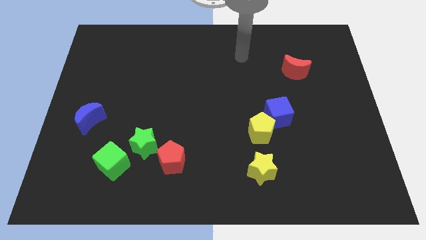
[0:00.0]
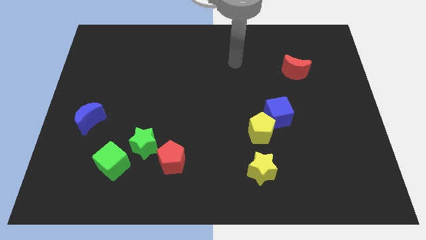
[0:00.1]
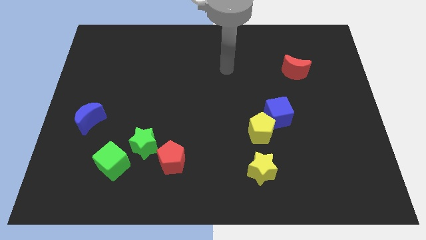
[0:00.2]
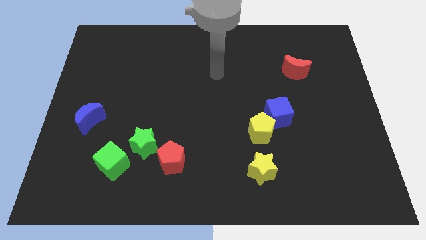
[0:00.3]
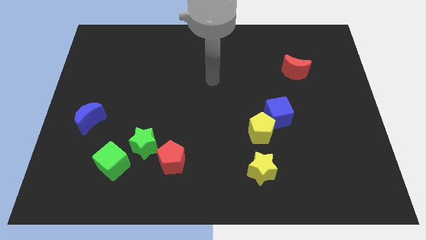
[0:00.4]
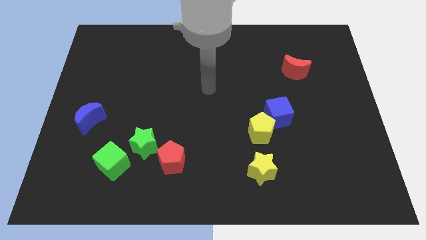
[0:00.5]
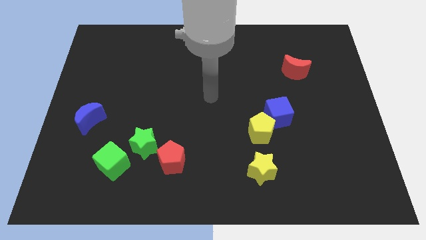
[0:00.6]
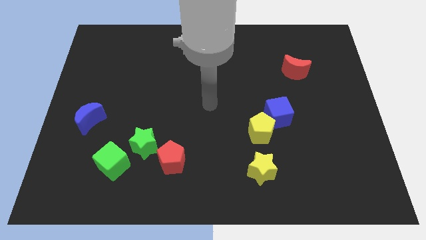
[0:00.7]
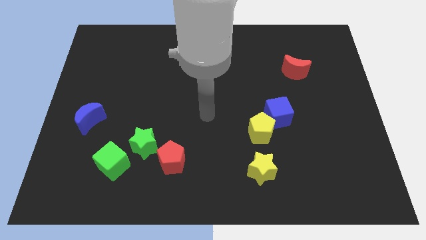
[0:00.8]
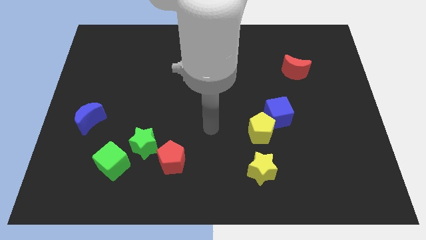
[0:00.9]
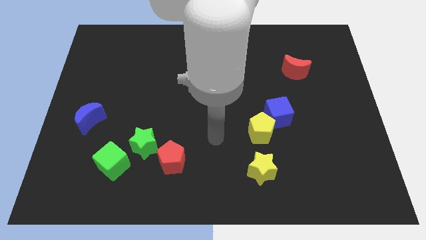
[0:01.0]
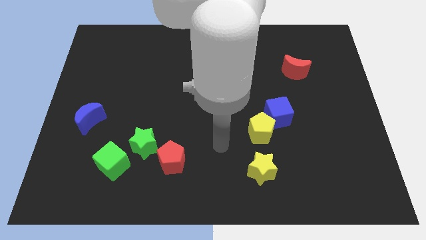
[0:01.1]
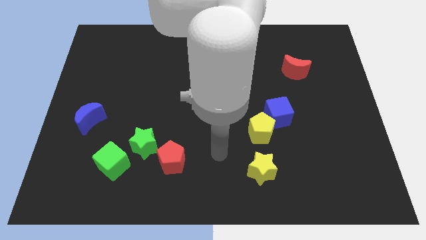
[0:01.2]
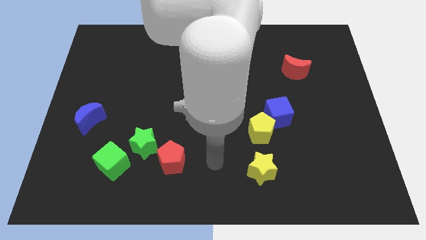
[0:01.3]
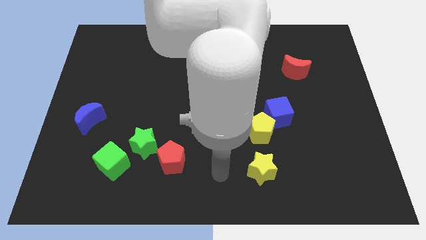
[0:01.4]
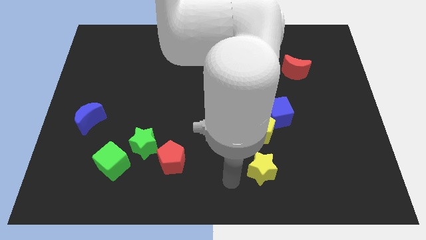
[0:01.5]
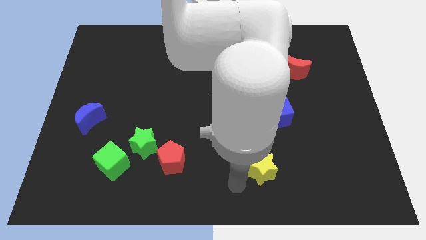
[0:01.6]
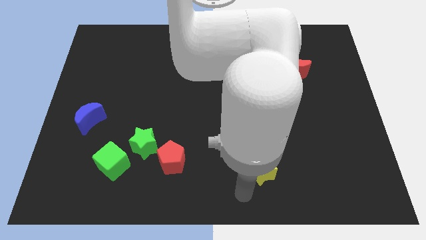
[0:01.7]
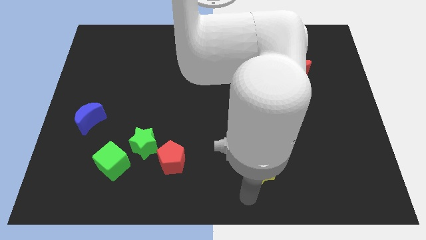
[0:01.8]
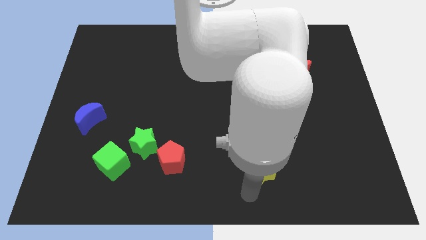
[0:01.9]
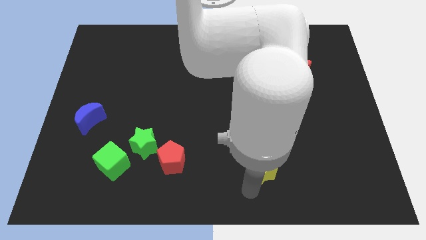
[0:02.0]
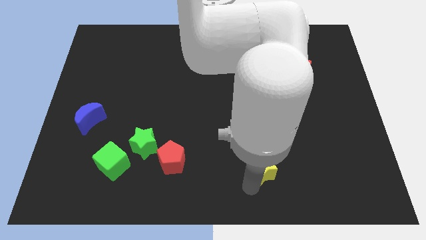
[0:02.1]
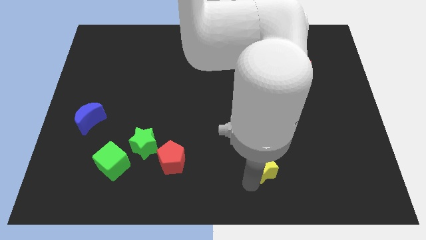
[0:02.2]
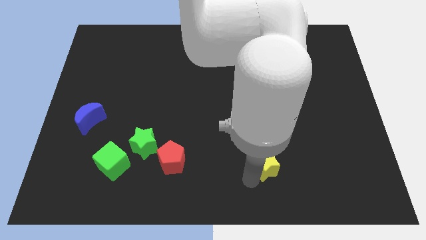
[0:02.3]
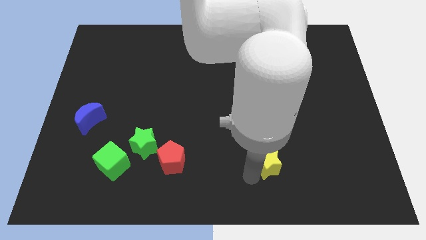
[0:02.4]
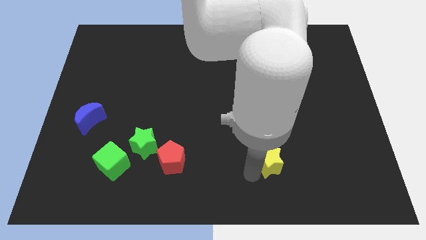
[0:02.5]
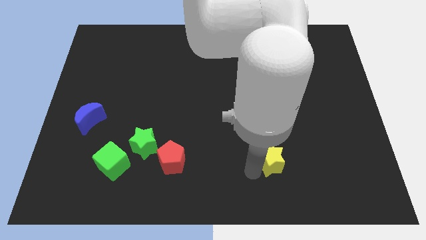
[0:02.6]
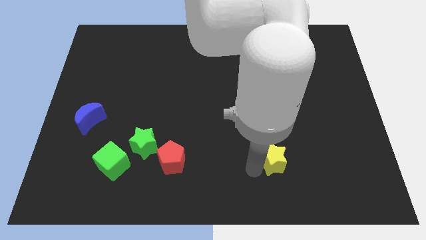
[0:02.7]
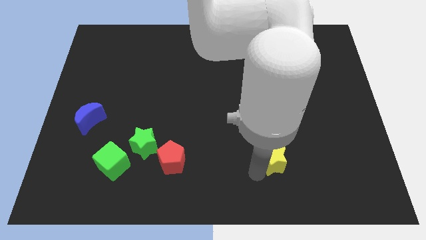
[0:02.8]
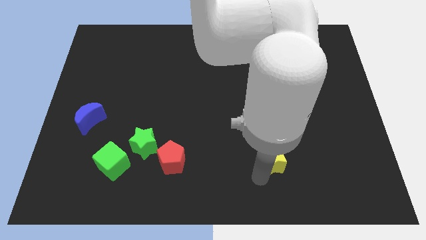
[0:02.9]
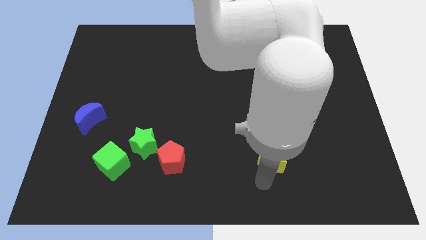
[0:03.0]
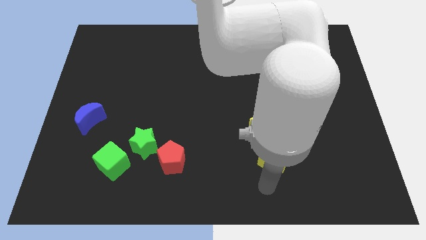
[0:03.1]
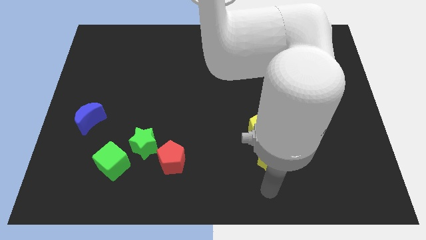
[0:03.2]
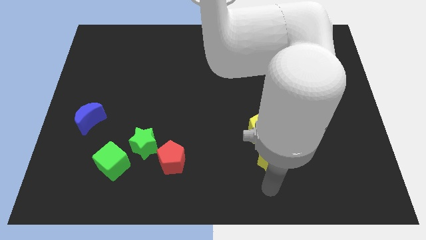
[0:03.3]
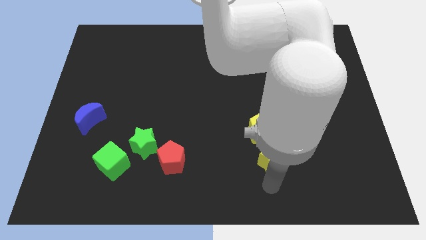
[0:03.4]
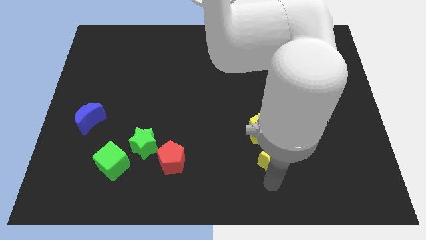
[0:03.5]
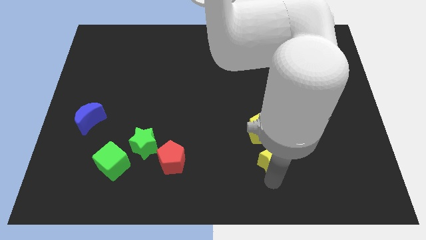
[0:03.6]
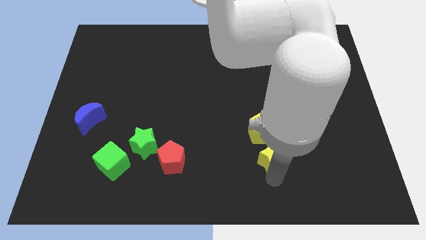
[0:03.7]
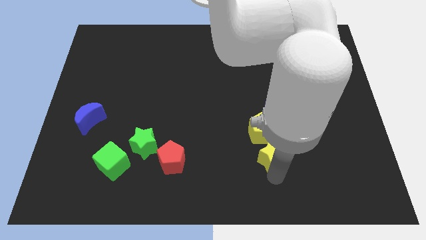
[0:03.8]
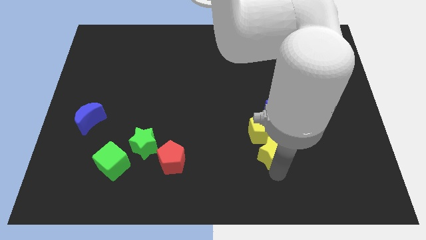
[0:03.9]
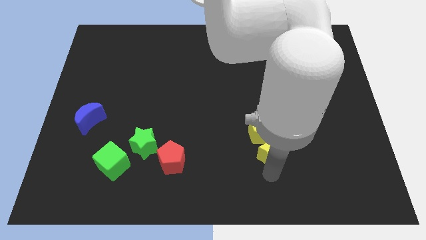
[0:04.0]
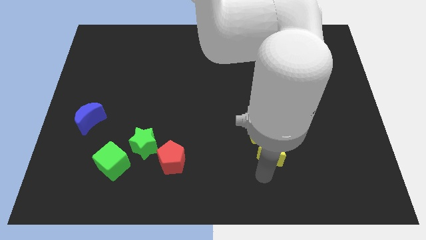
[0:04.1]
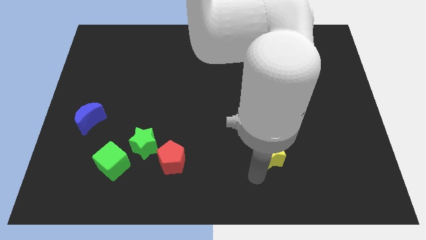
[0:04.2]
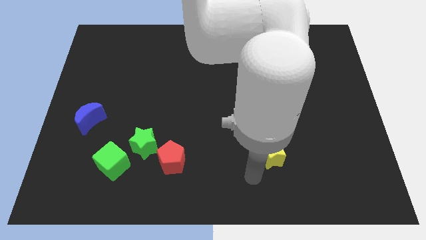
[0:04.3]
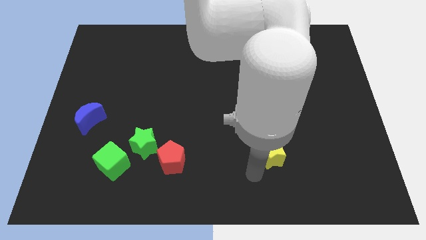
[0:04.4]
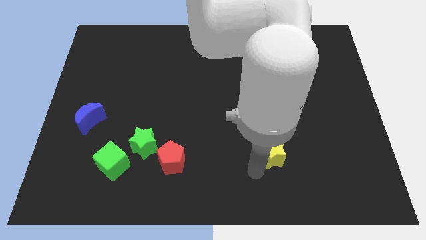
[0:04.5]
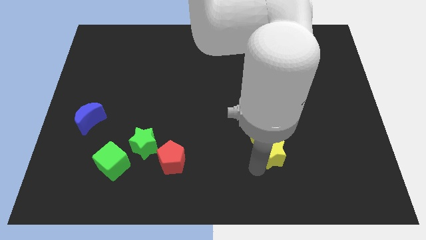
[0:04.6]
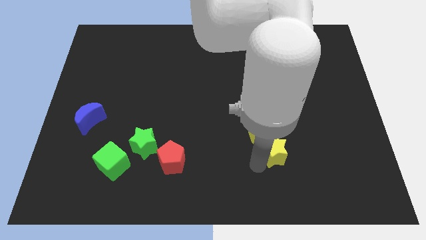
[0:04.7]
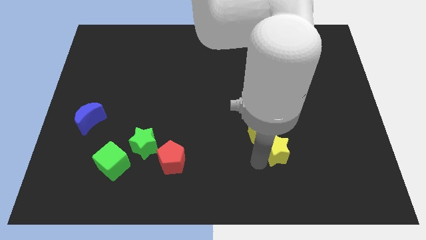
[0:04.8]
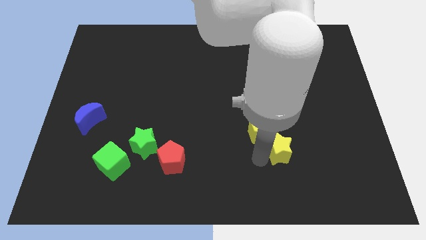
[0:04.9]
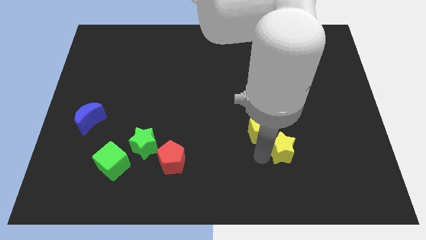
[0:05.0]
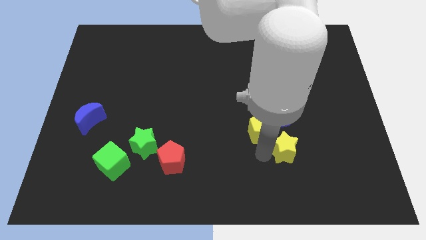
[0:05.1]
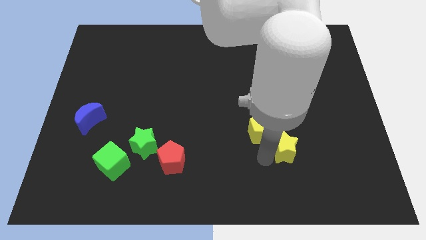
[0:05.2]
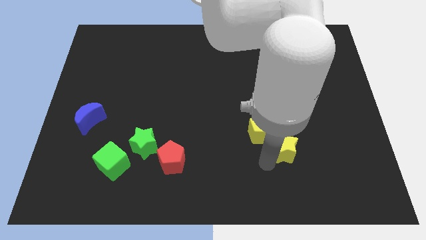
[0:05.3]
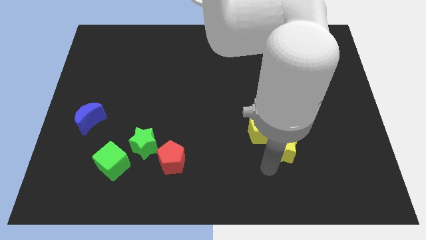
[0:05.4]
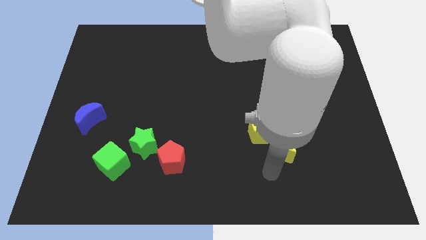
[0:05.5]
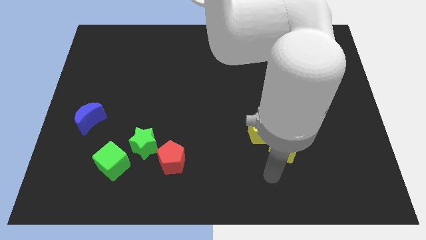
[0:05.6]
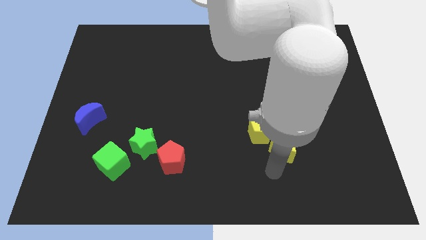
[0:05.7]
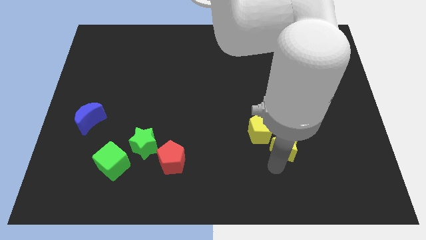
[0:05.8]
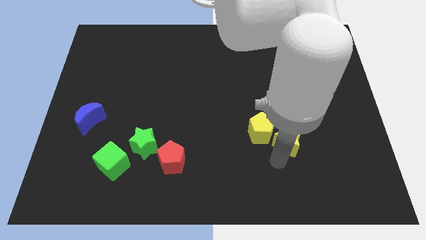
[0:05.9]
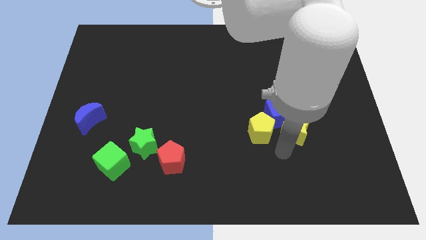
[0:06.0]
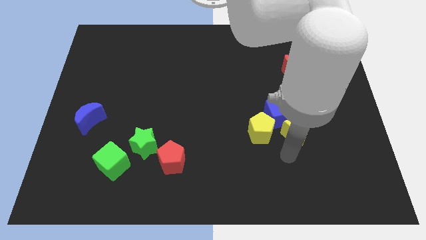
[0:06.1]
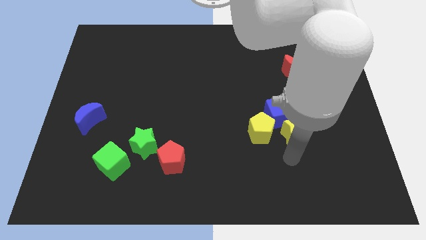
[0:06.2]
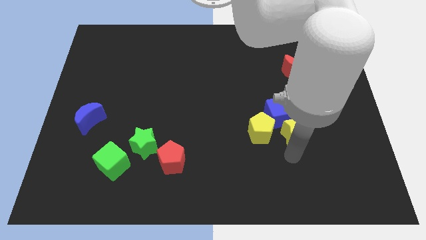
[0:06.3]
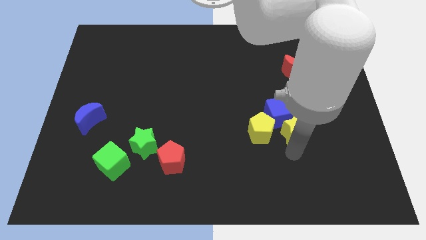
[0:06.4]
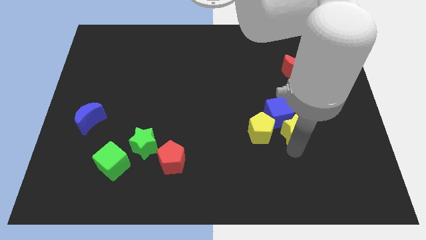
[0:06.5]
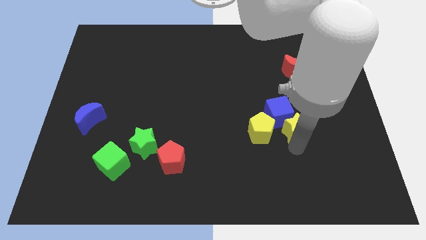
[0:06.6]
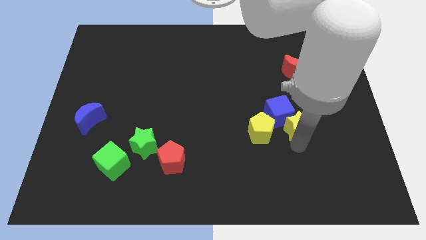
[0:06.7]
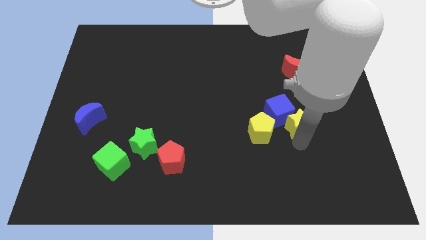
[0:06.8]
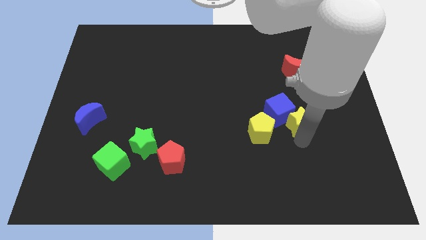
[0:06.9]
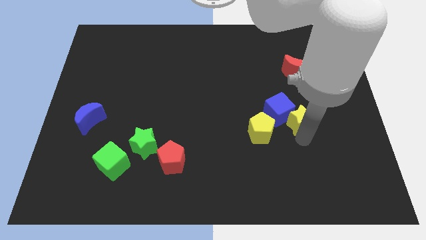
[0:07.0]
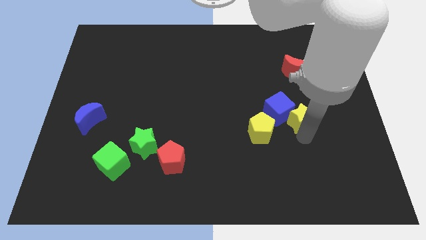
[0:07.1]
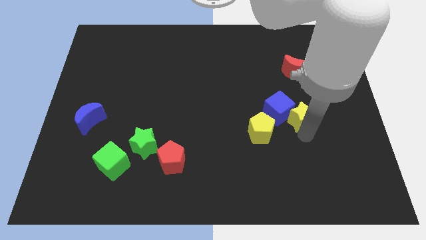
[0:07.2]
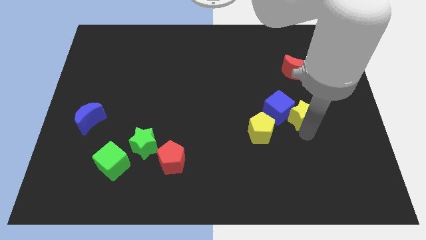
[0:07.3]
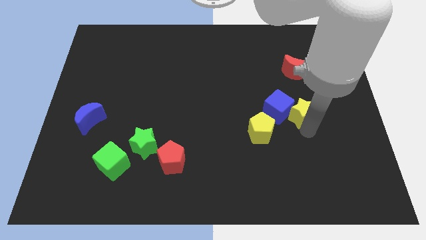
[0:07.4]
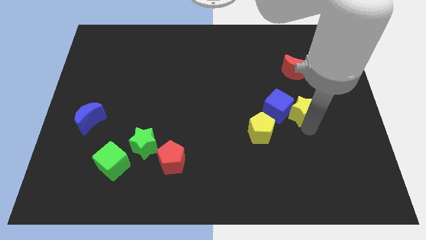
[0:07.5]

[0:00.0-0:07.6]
push the yellow star to the top right of the blue cube
